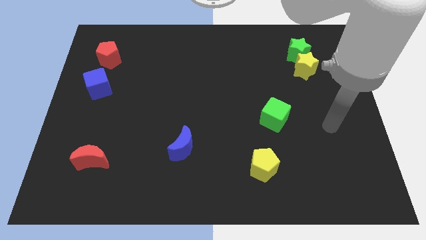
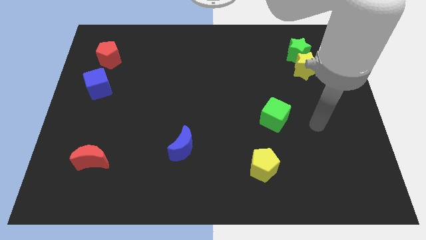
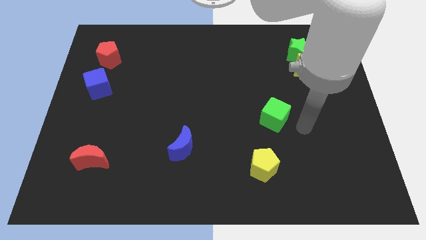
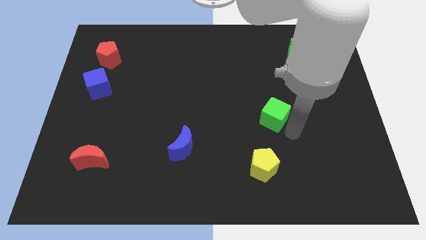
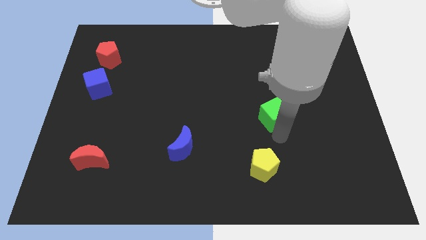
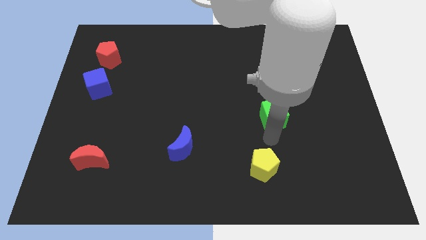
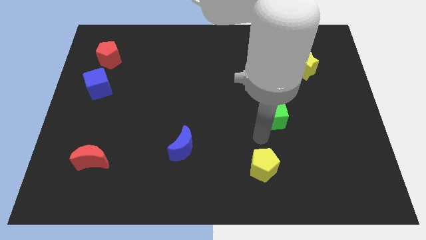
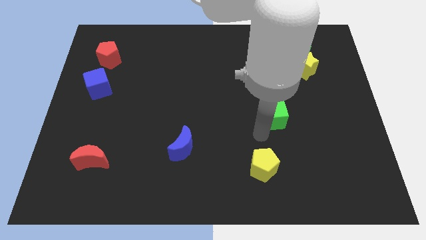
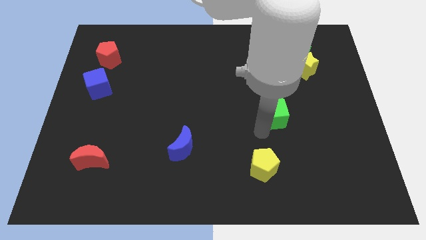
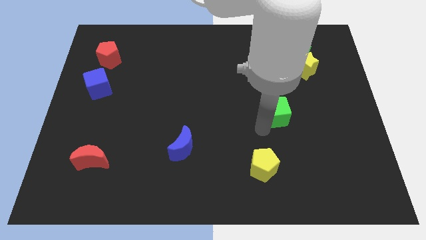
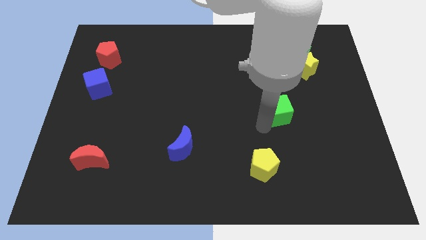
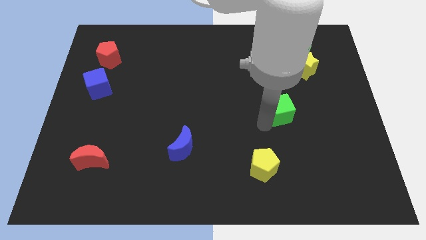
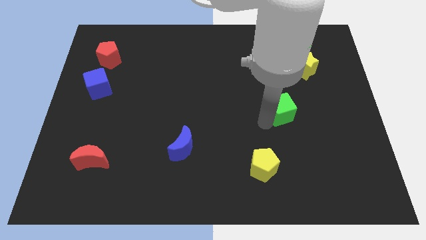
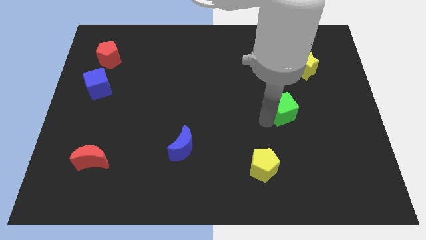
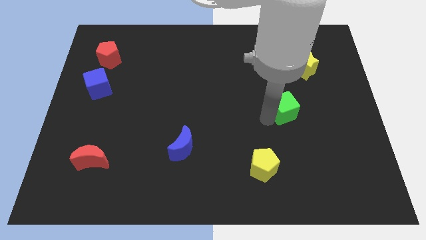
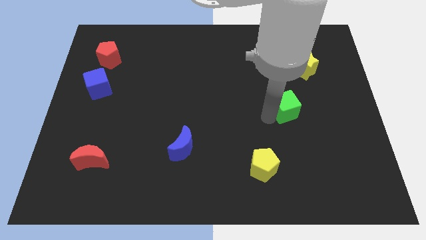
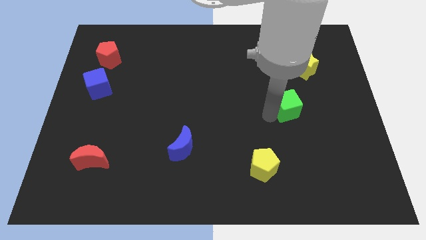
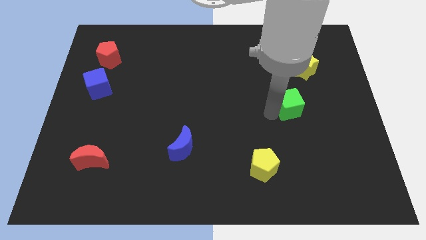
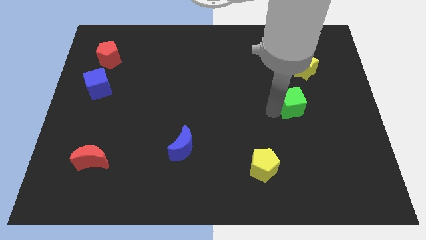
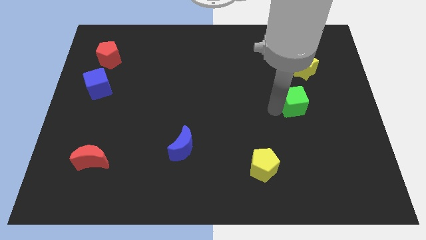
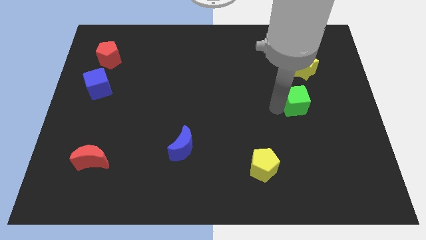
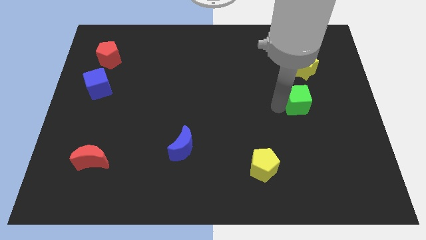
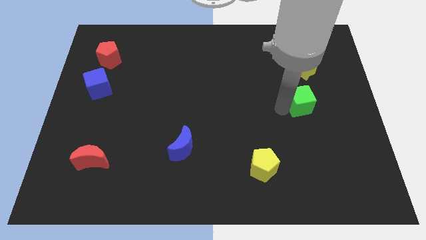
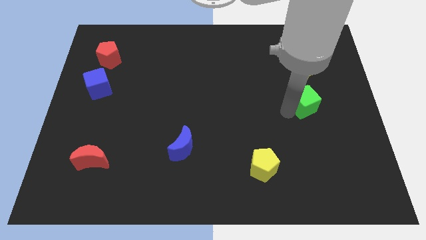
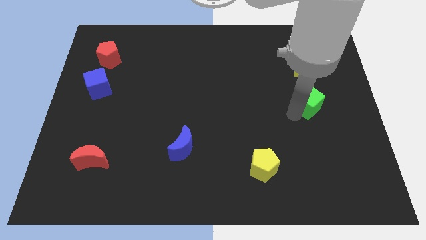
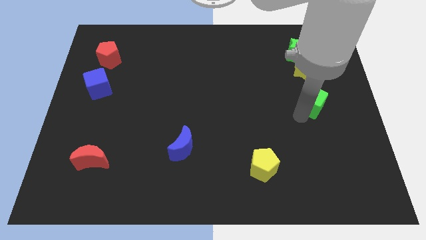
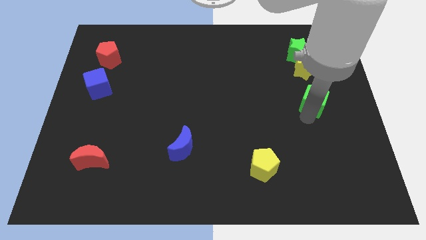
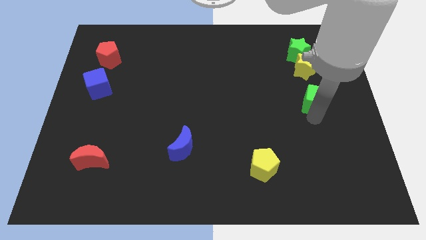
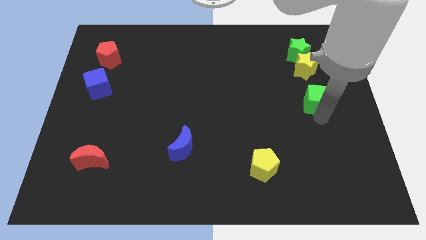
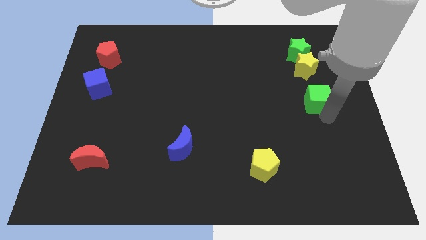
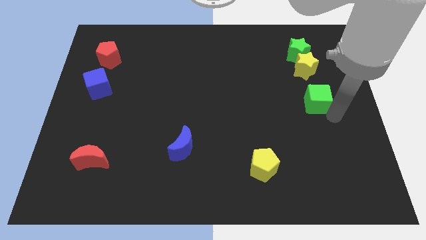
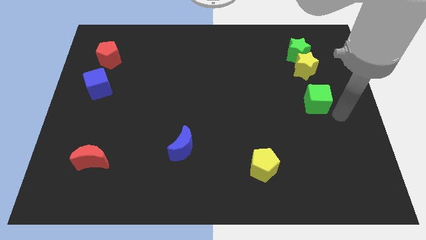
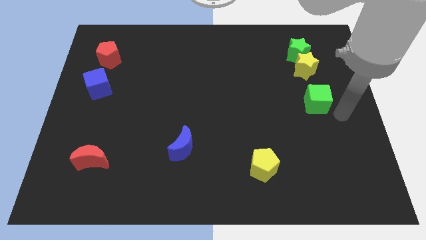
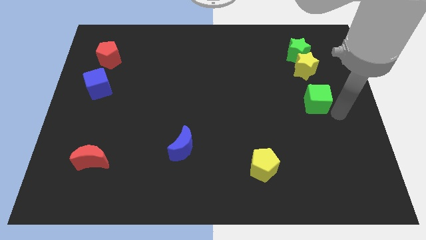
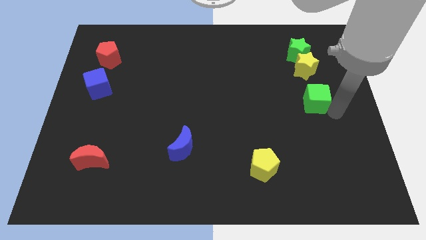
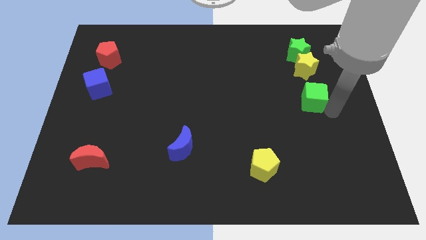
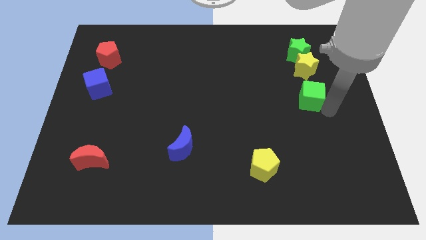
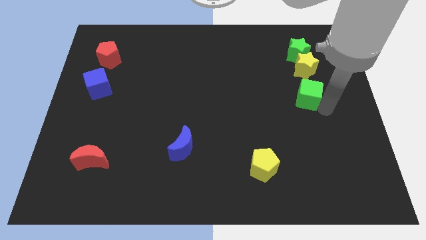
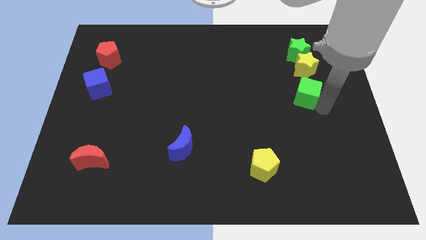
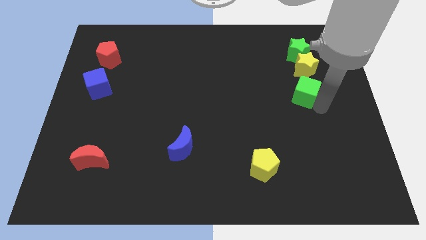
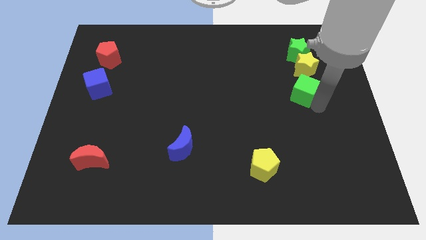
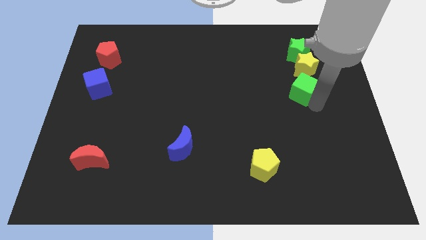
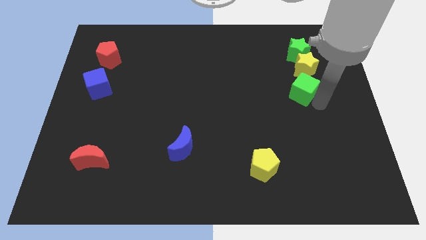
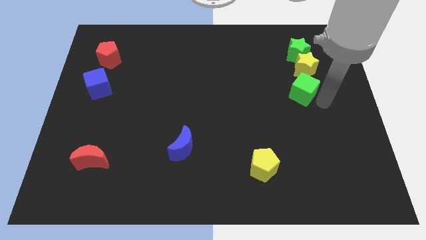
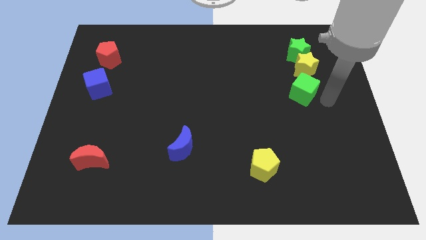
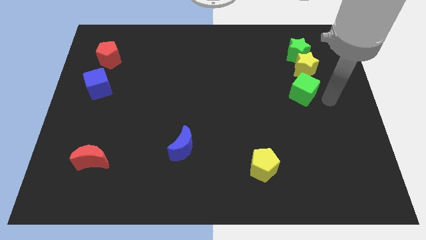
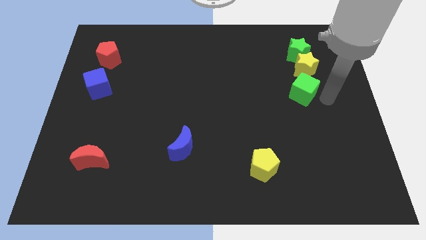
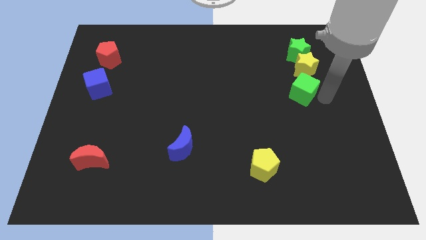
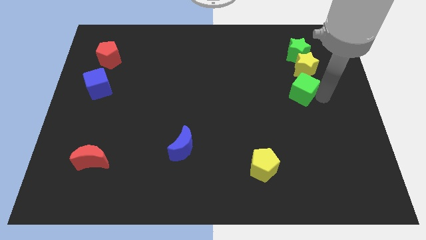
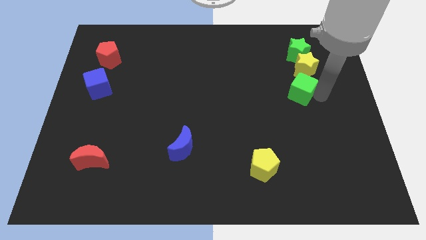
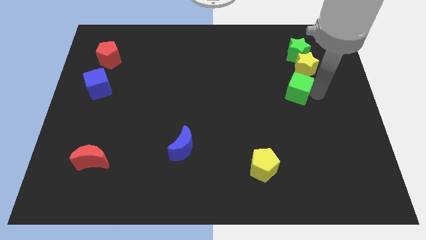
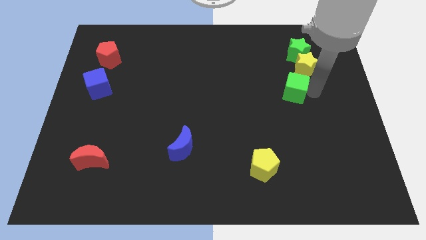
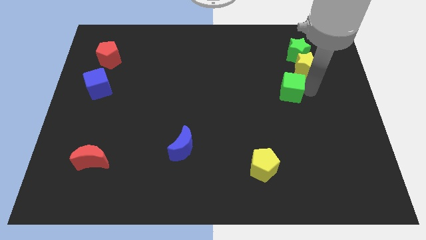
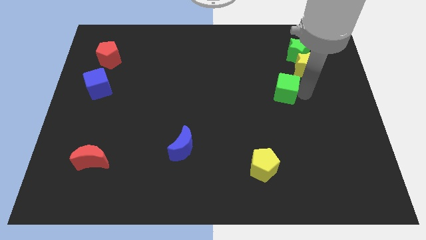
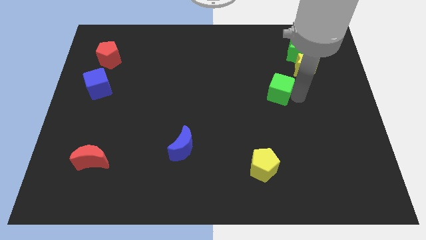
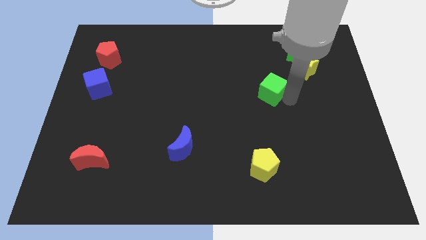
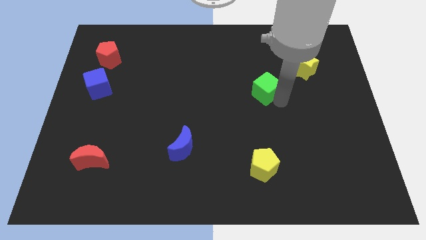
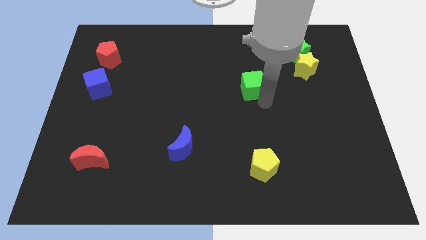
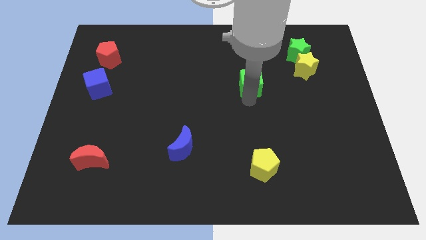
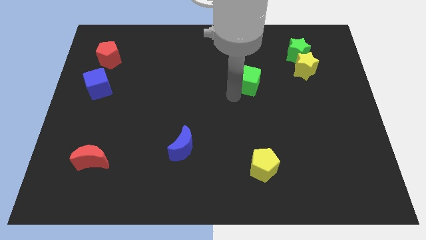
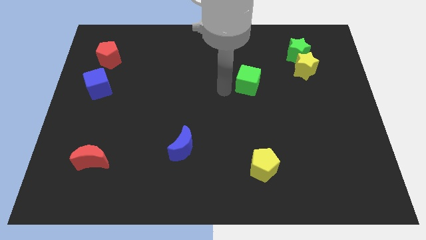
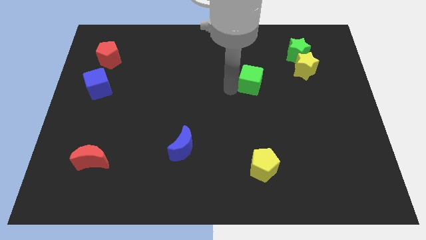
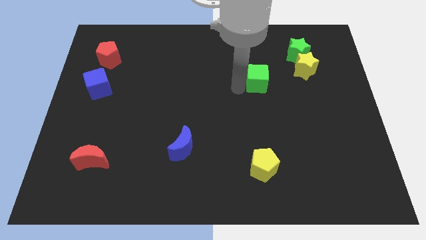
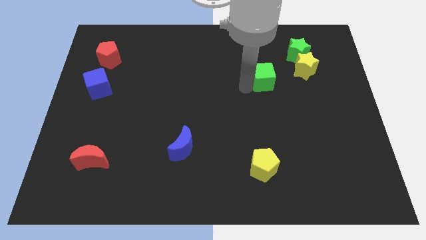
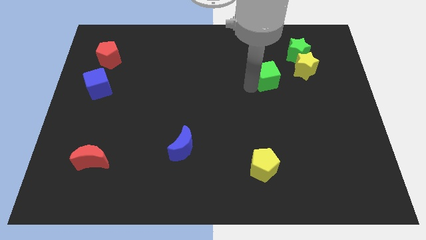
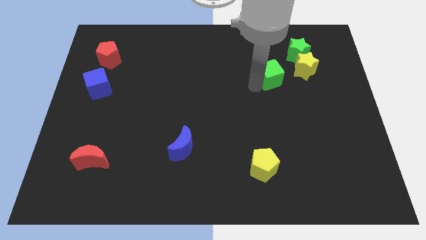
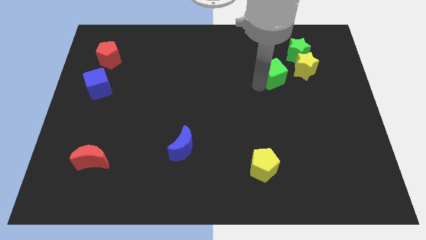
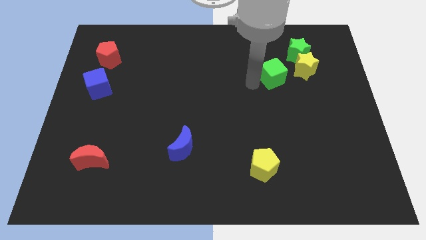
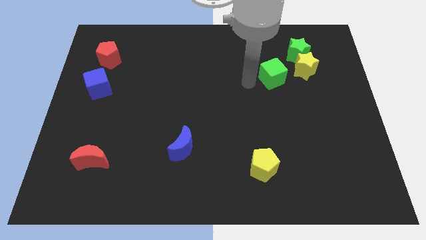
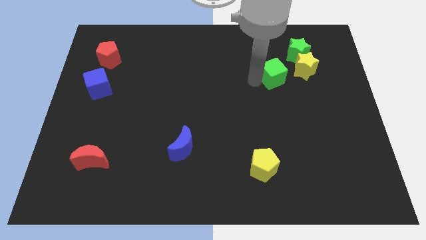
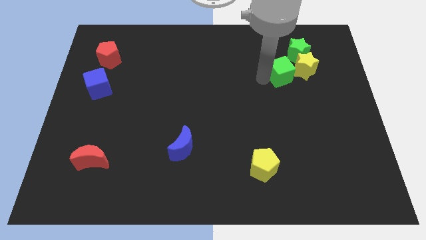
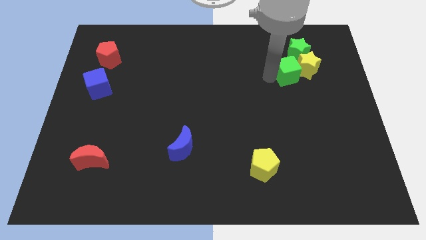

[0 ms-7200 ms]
put the green cube close to the yellow star

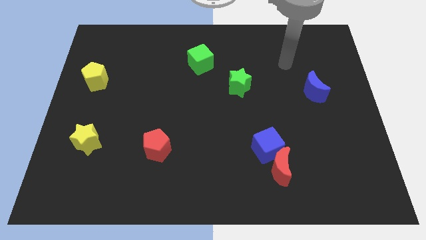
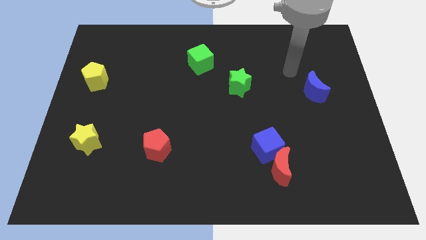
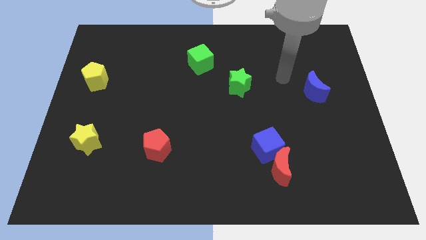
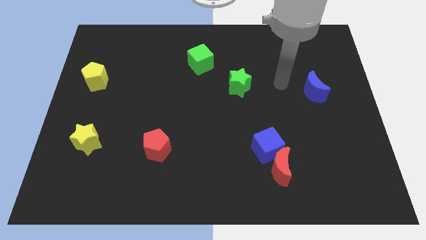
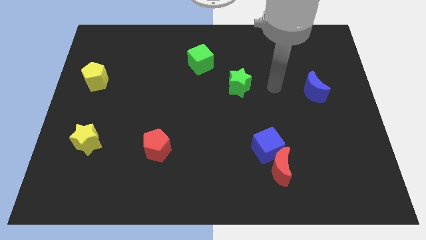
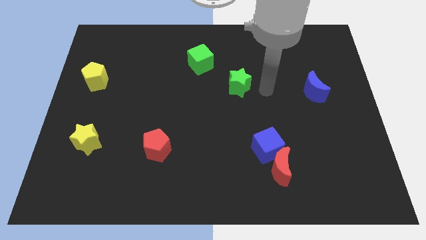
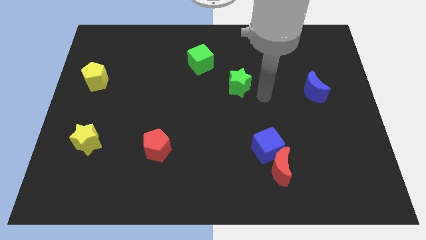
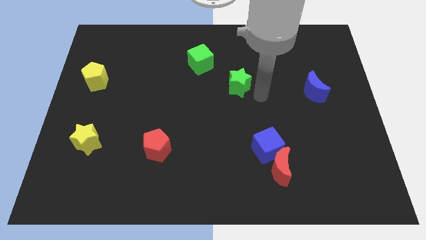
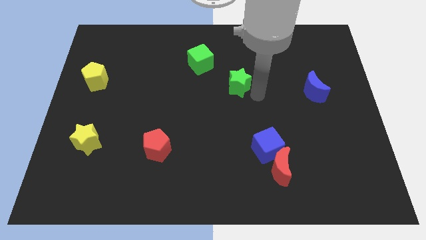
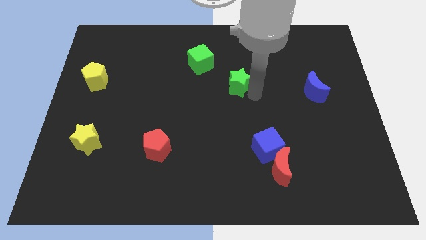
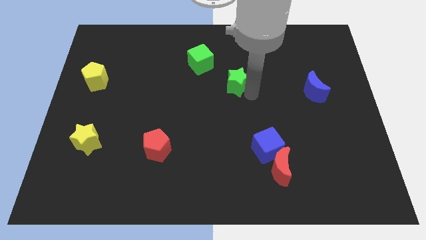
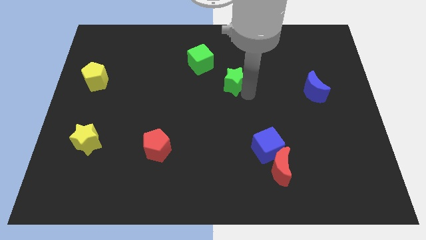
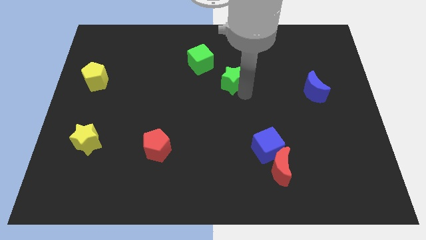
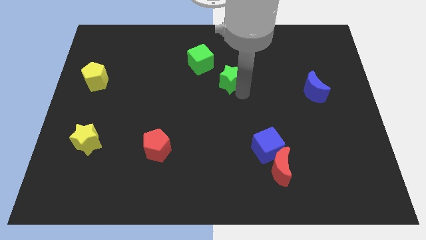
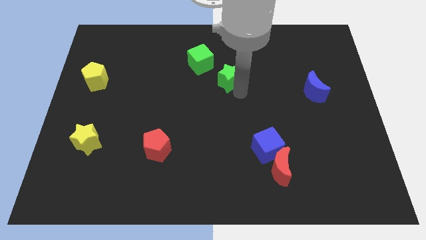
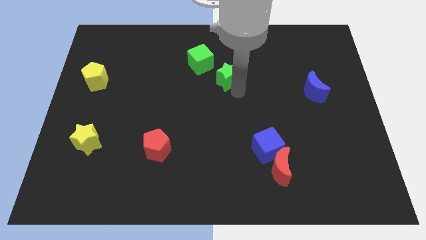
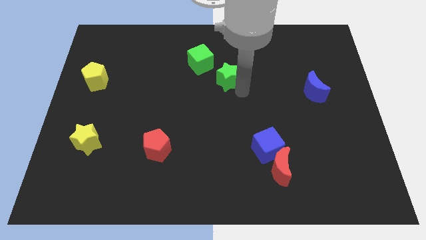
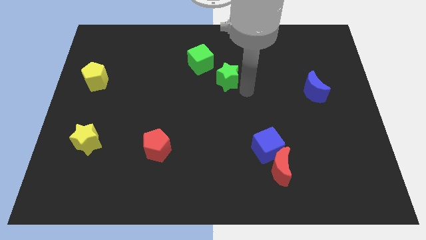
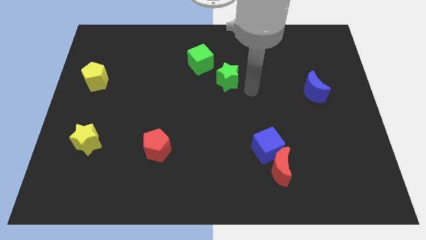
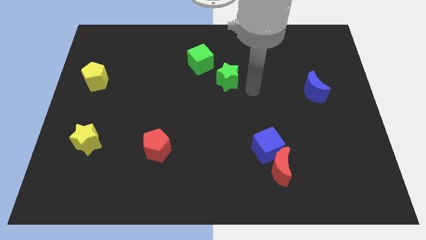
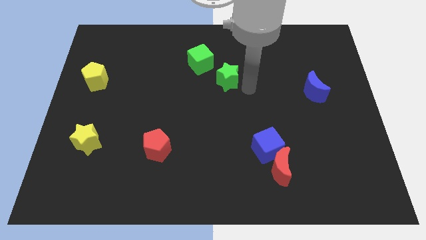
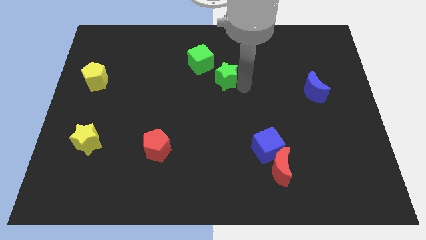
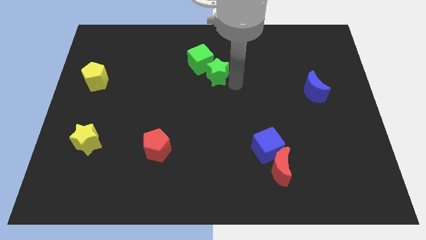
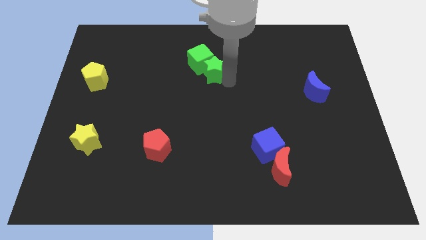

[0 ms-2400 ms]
move the green star towards the green cube
